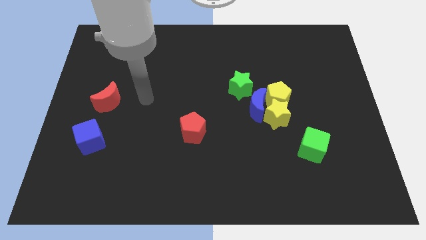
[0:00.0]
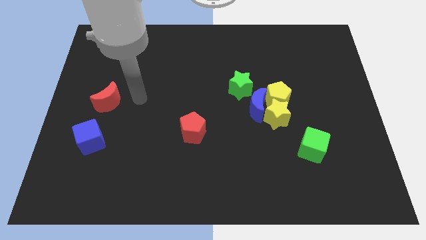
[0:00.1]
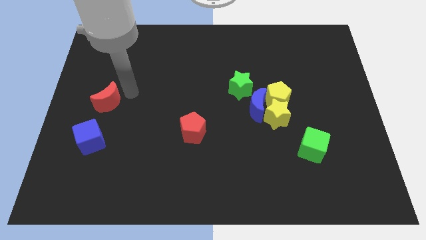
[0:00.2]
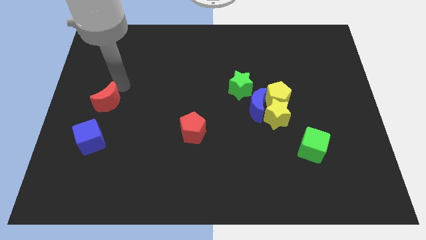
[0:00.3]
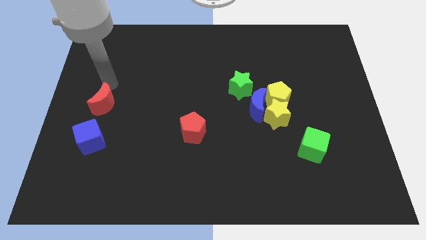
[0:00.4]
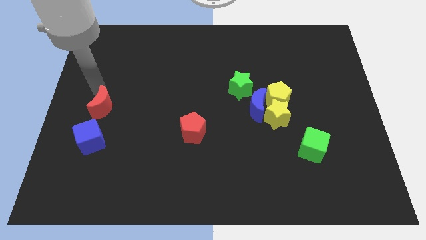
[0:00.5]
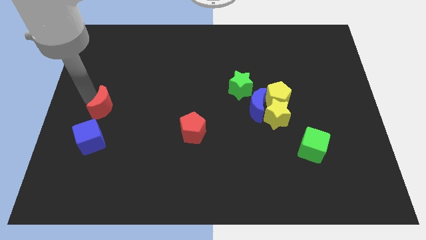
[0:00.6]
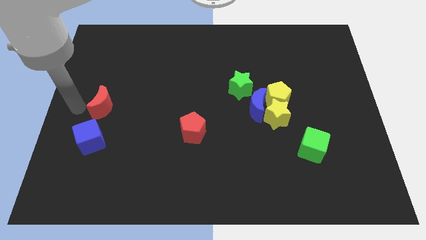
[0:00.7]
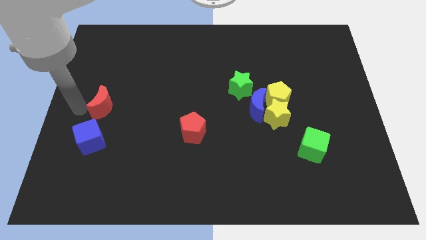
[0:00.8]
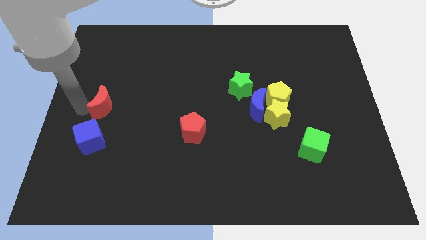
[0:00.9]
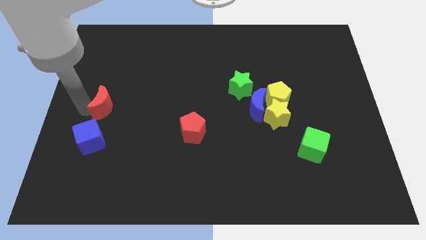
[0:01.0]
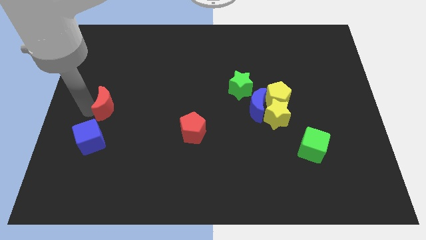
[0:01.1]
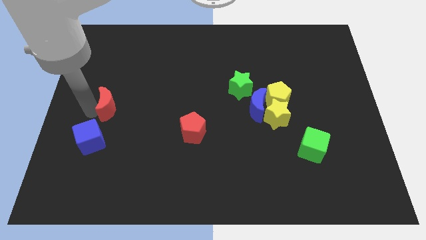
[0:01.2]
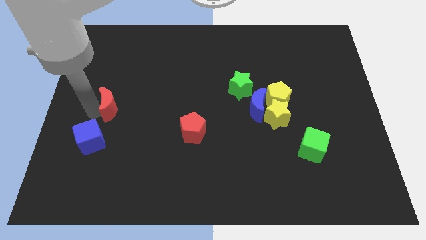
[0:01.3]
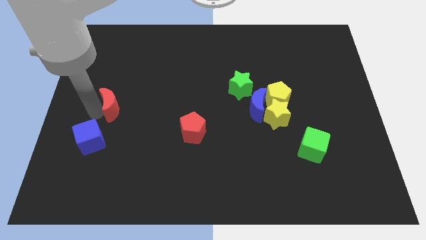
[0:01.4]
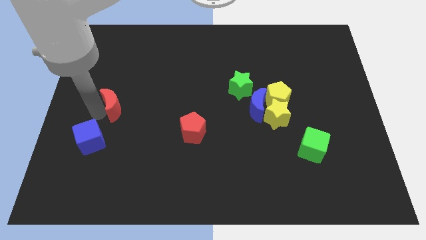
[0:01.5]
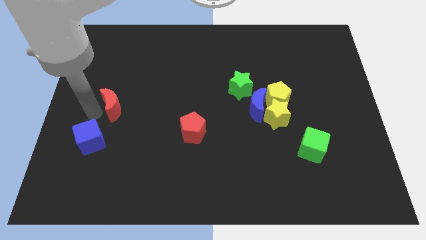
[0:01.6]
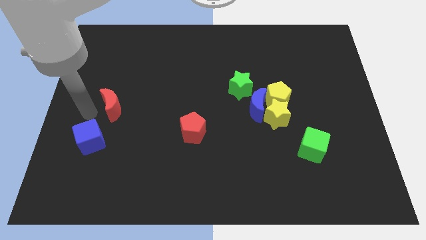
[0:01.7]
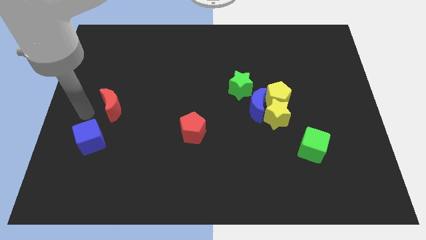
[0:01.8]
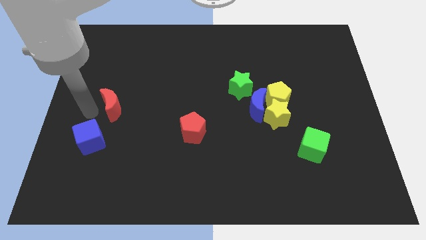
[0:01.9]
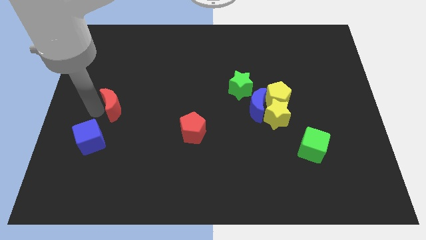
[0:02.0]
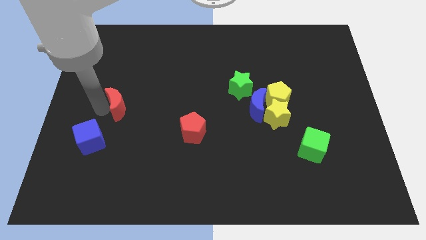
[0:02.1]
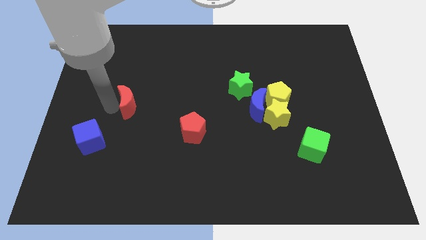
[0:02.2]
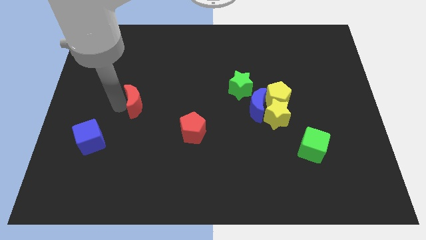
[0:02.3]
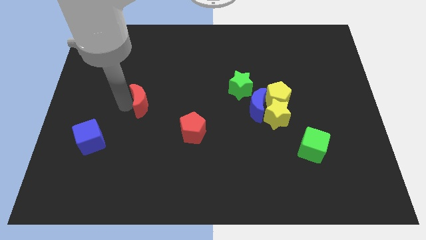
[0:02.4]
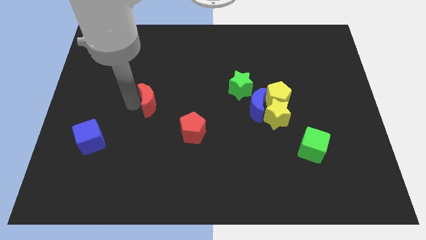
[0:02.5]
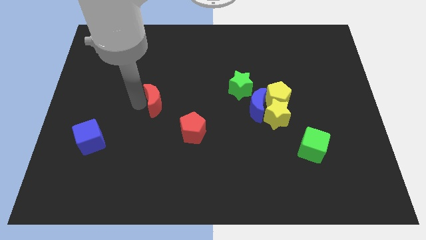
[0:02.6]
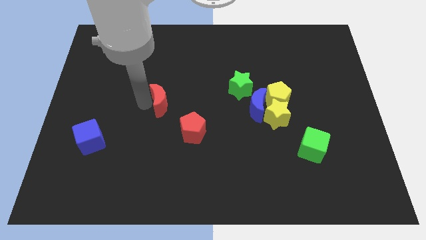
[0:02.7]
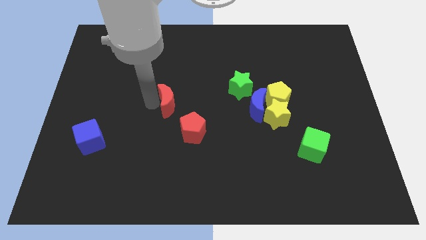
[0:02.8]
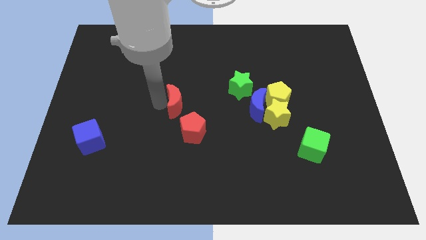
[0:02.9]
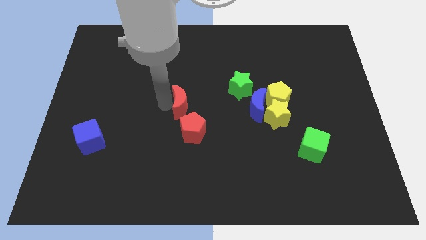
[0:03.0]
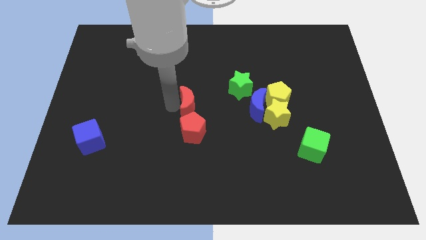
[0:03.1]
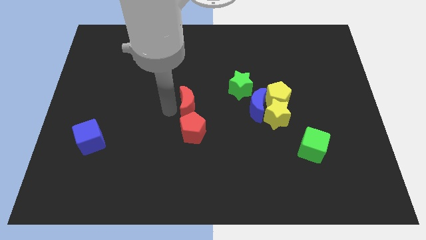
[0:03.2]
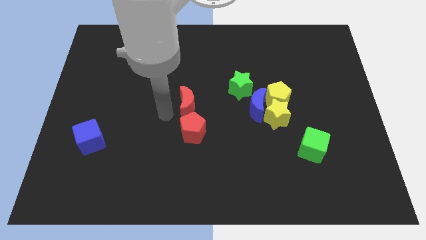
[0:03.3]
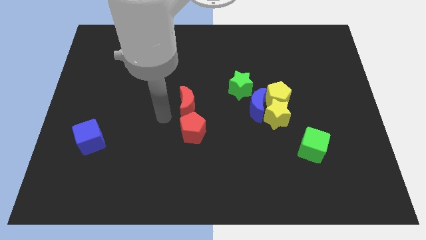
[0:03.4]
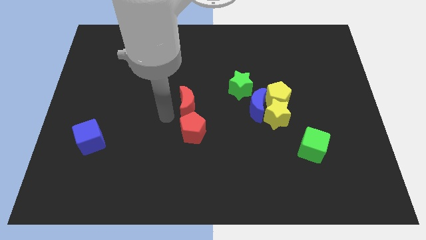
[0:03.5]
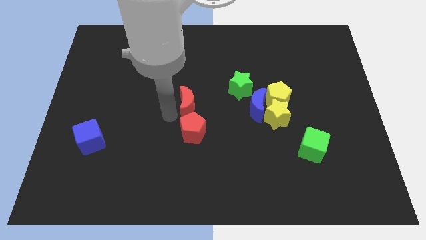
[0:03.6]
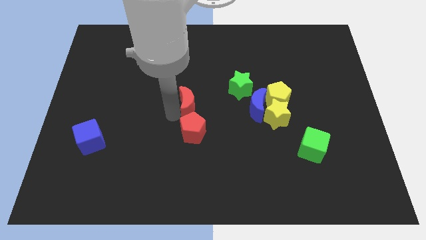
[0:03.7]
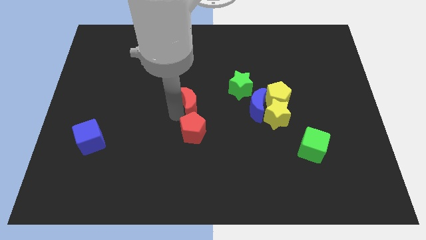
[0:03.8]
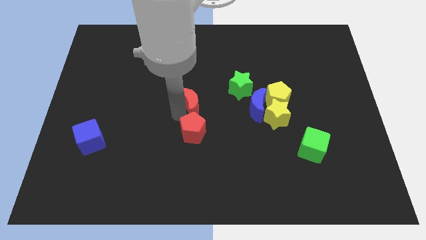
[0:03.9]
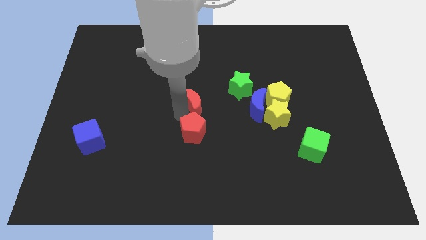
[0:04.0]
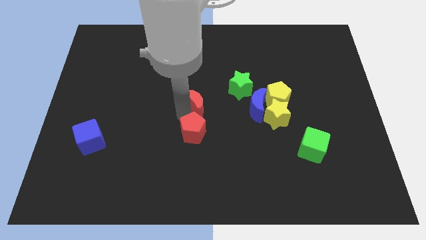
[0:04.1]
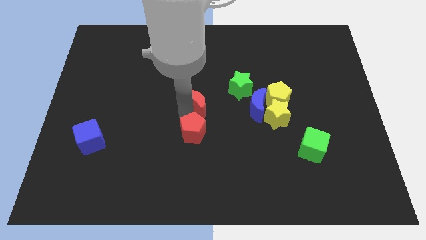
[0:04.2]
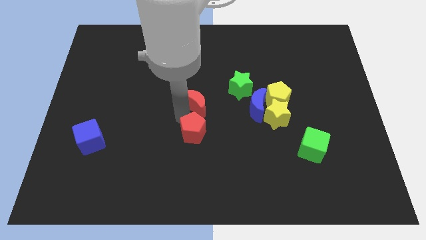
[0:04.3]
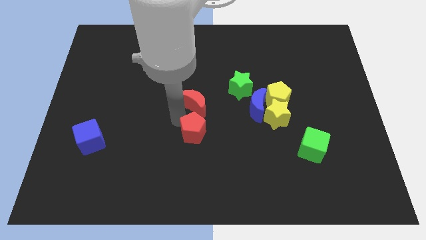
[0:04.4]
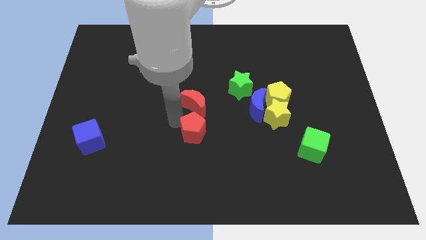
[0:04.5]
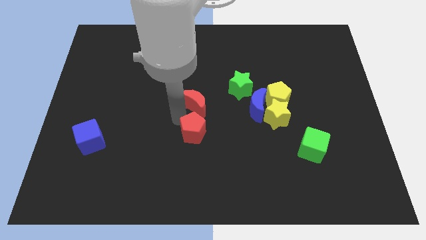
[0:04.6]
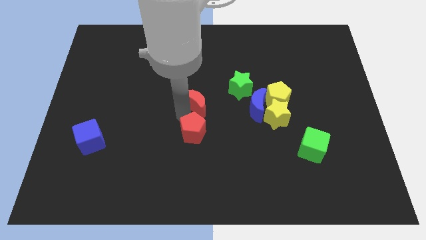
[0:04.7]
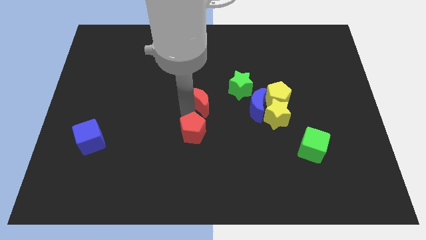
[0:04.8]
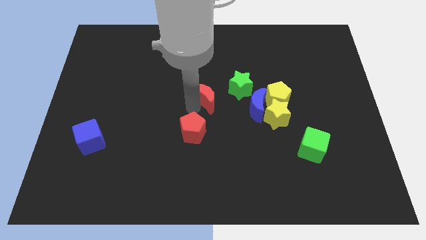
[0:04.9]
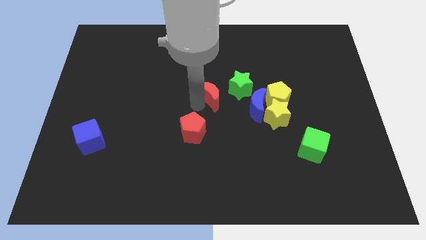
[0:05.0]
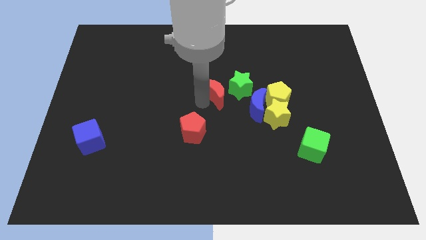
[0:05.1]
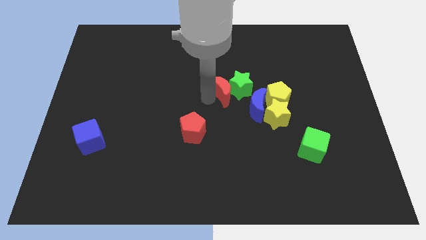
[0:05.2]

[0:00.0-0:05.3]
push the red moon next to the green star

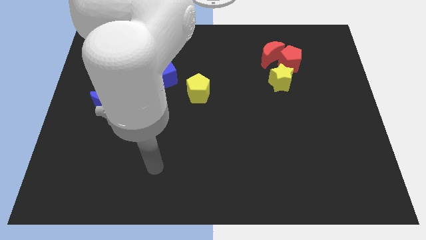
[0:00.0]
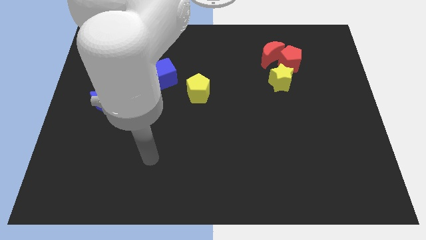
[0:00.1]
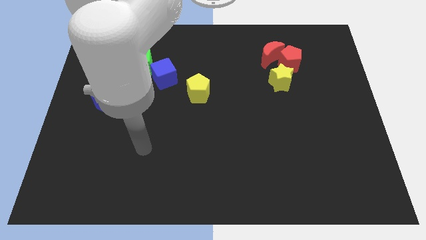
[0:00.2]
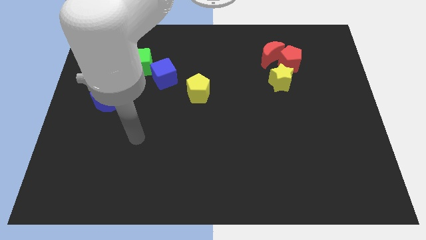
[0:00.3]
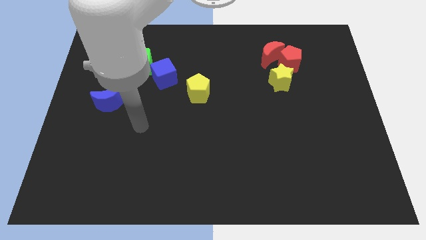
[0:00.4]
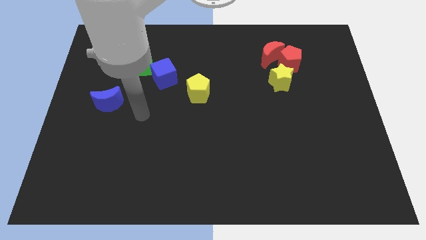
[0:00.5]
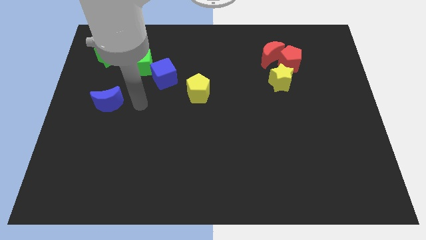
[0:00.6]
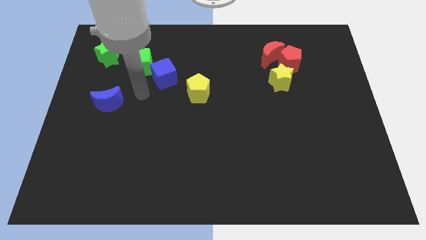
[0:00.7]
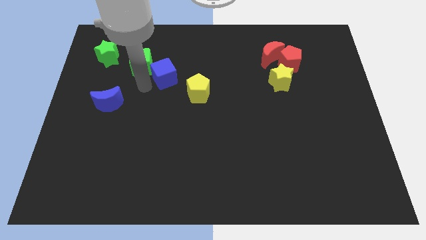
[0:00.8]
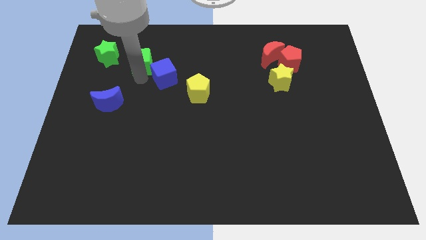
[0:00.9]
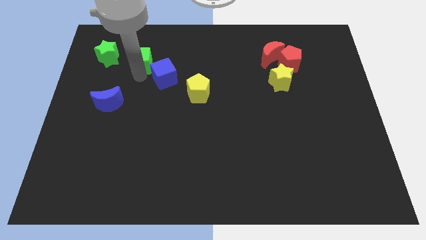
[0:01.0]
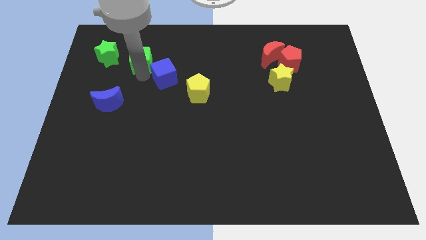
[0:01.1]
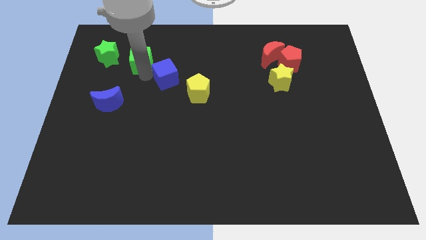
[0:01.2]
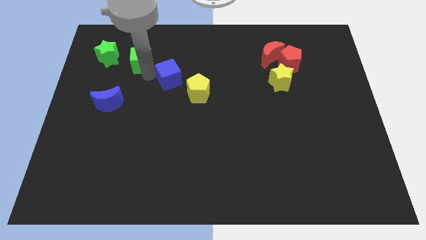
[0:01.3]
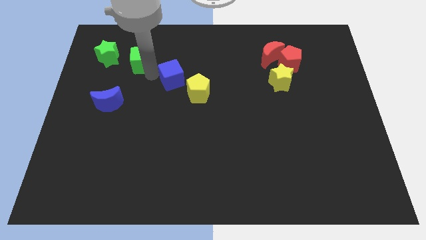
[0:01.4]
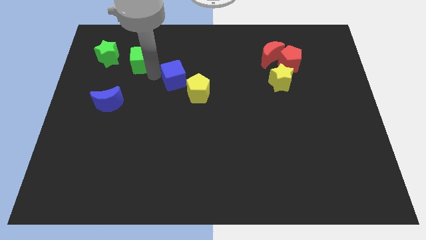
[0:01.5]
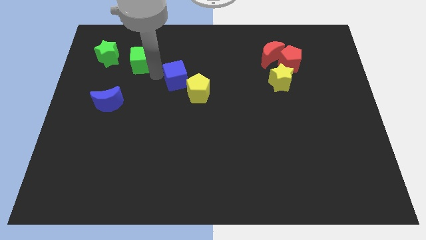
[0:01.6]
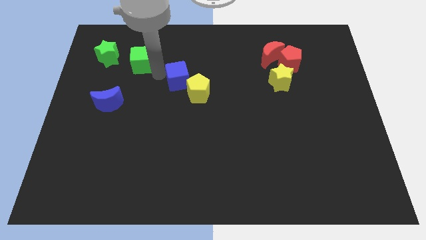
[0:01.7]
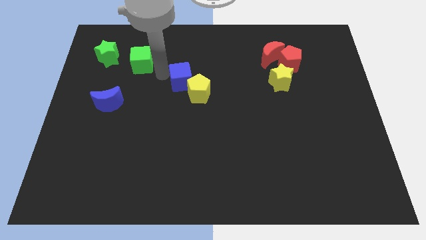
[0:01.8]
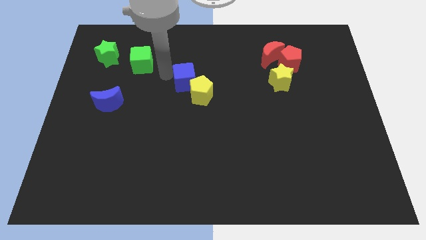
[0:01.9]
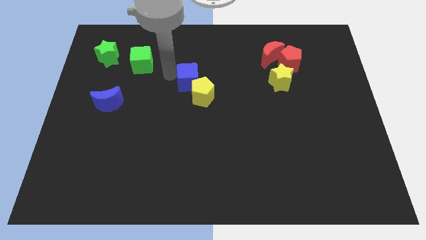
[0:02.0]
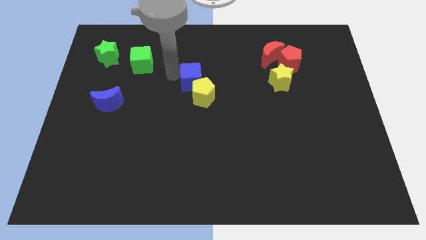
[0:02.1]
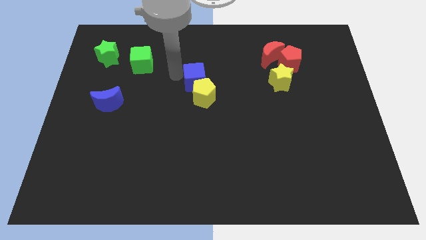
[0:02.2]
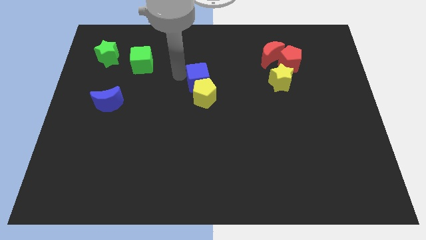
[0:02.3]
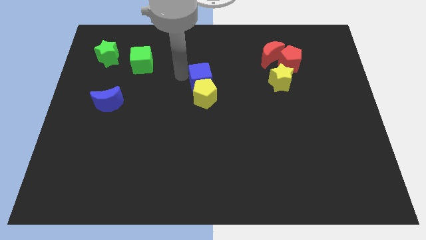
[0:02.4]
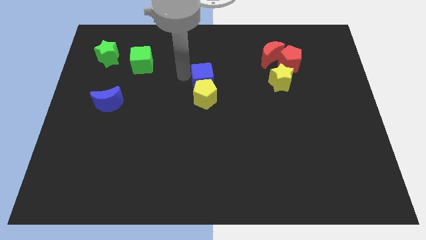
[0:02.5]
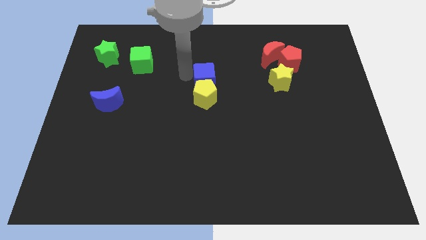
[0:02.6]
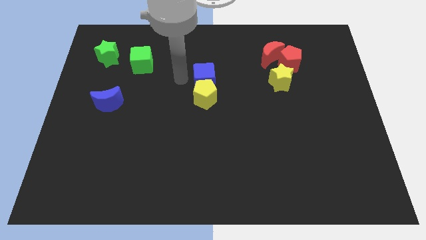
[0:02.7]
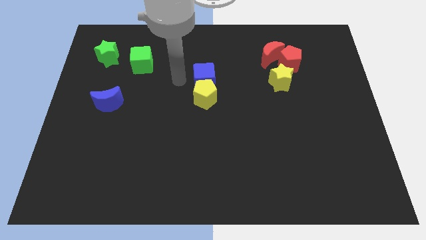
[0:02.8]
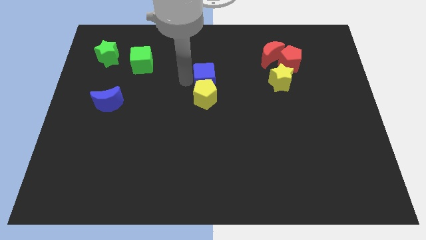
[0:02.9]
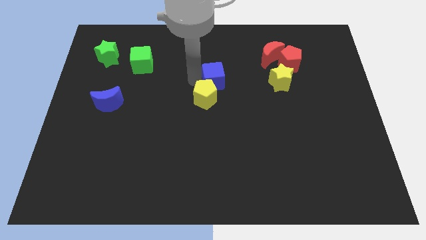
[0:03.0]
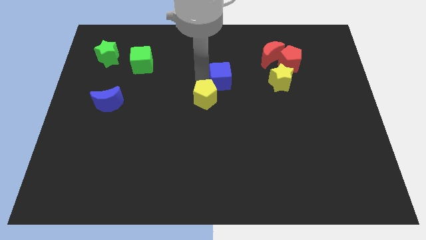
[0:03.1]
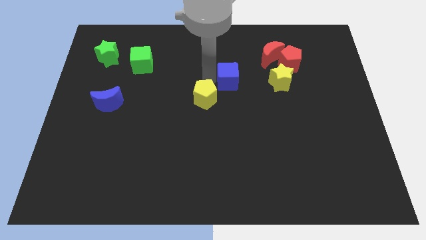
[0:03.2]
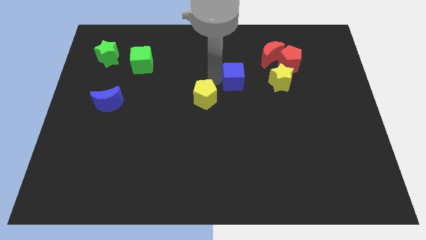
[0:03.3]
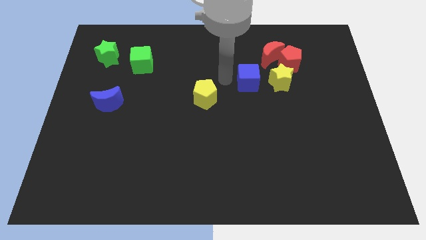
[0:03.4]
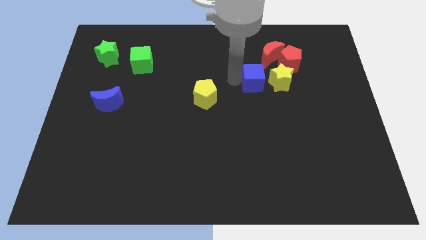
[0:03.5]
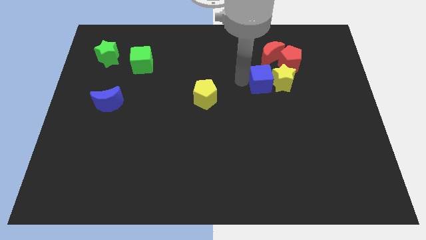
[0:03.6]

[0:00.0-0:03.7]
put the blue cube towards the yellow star
